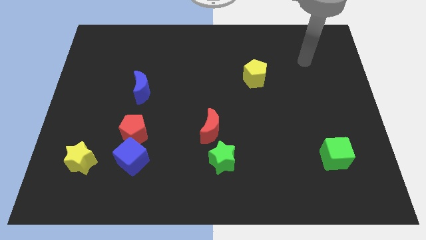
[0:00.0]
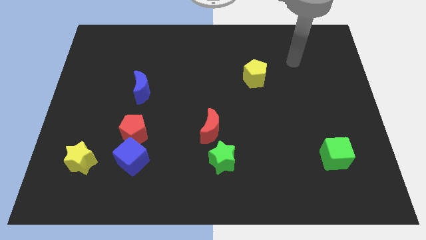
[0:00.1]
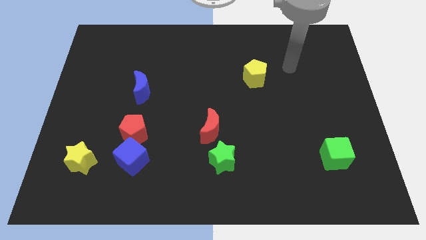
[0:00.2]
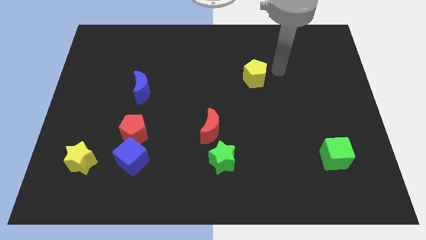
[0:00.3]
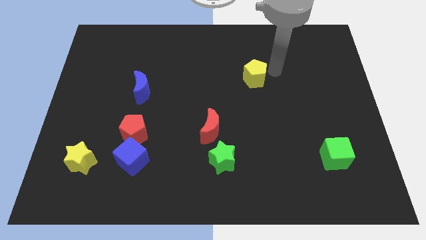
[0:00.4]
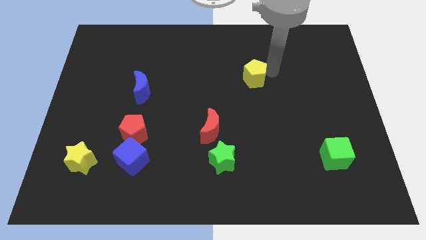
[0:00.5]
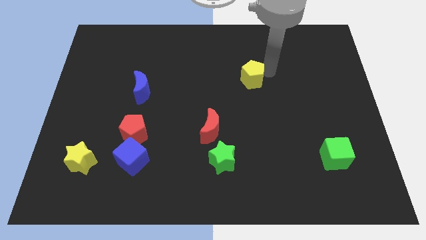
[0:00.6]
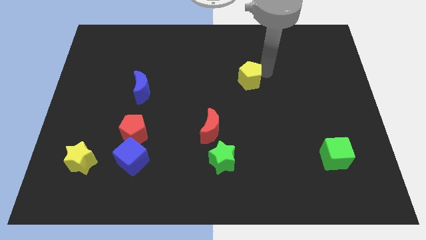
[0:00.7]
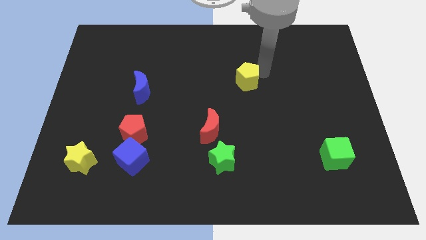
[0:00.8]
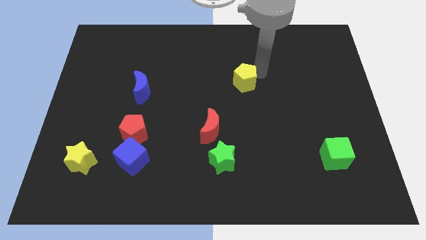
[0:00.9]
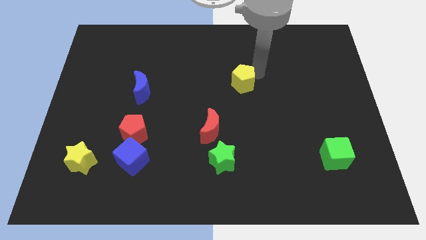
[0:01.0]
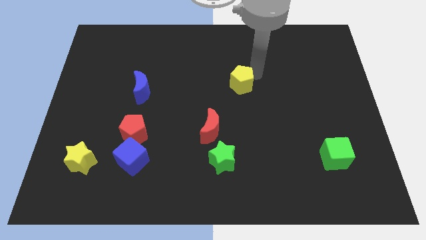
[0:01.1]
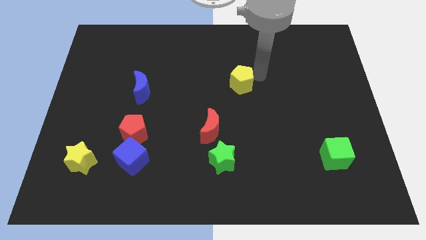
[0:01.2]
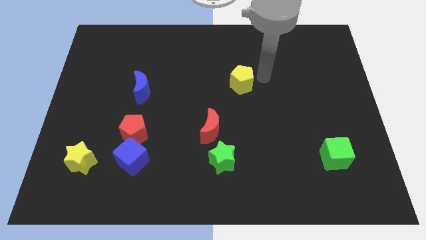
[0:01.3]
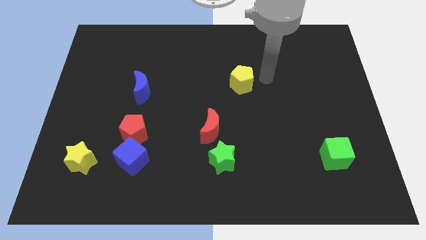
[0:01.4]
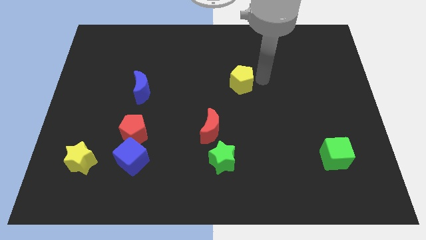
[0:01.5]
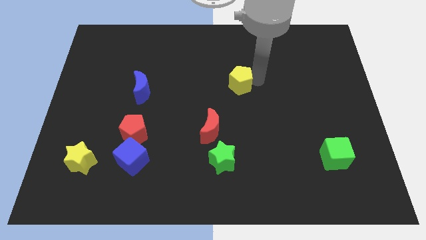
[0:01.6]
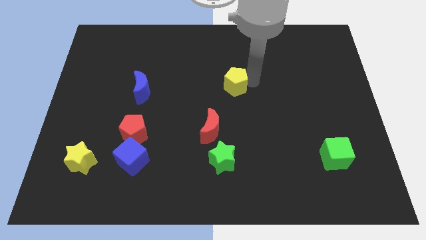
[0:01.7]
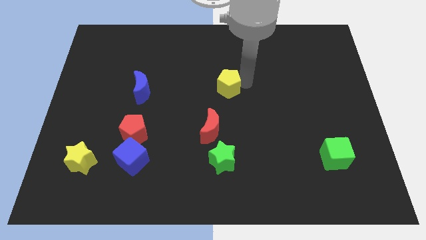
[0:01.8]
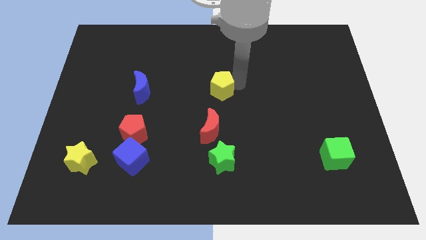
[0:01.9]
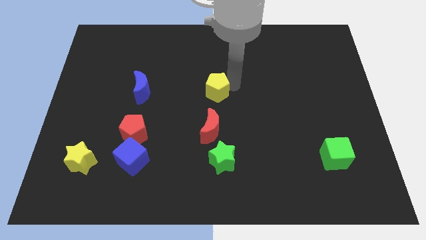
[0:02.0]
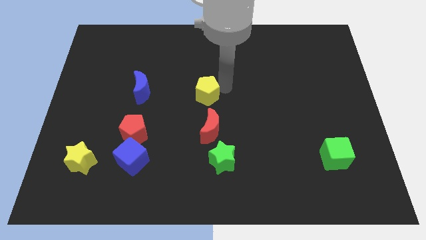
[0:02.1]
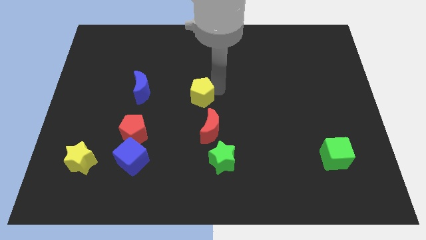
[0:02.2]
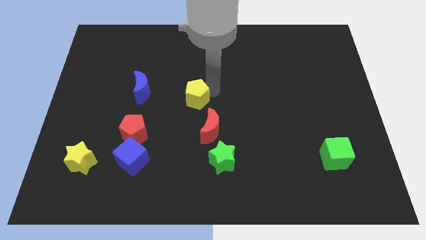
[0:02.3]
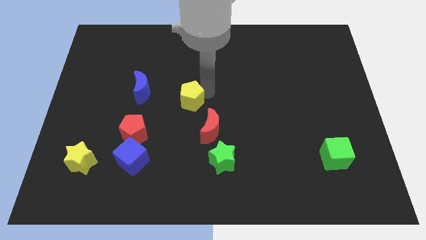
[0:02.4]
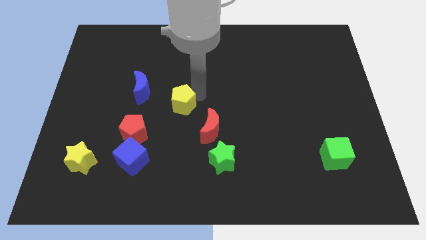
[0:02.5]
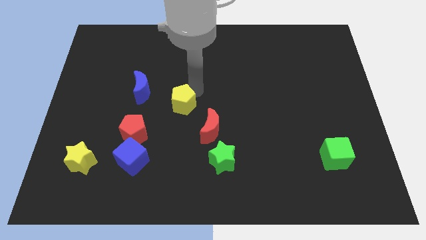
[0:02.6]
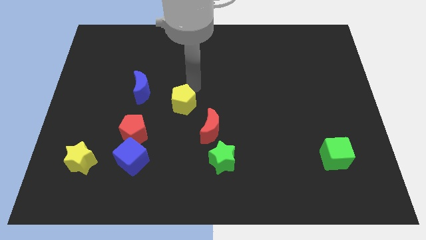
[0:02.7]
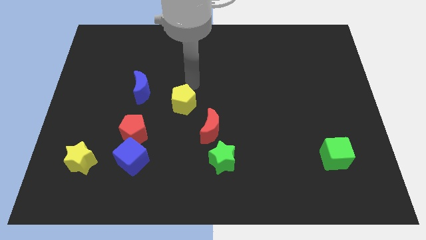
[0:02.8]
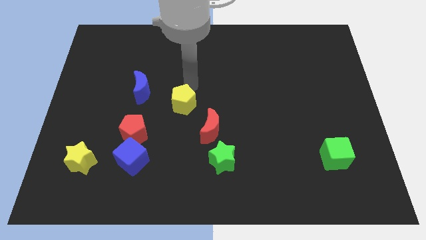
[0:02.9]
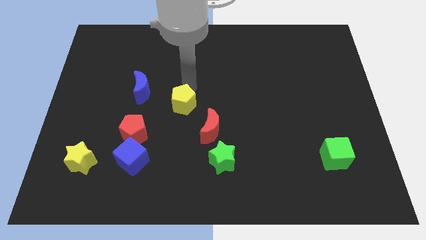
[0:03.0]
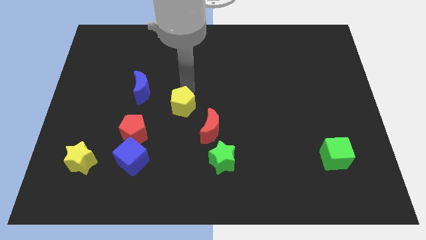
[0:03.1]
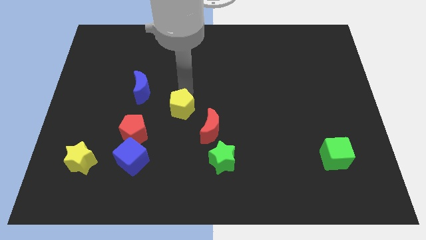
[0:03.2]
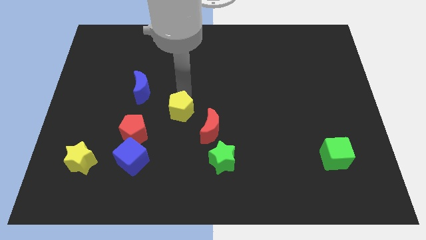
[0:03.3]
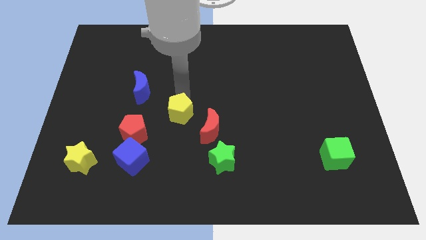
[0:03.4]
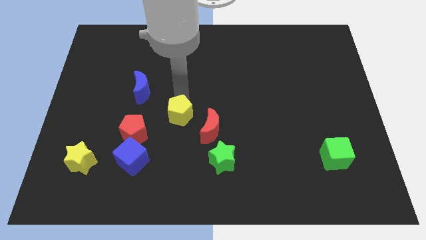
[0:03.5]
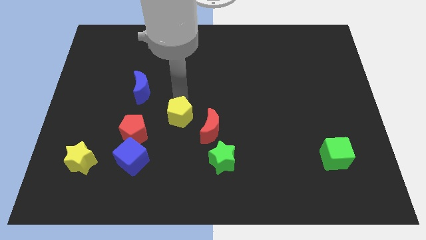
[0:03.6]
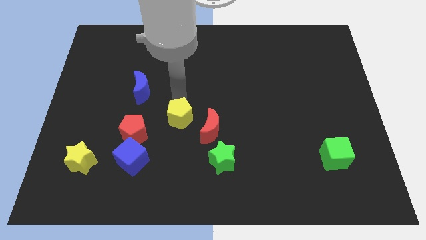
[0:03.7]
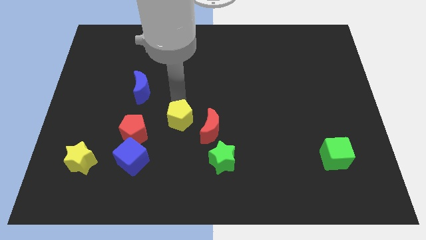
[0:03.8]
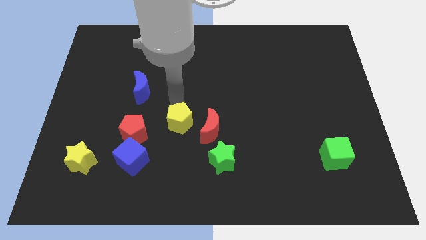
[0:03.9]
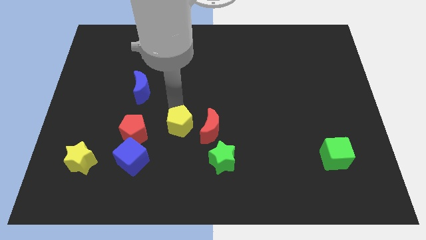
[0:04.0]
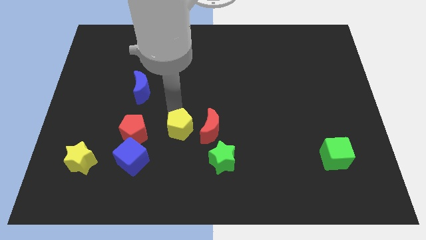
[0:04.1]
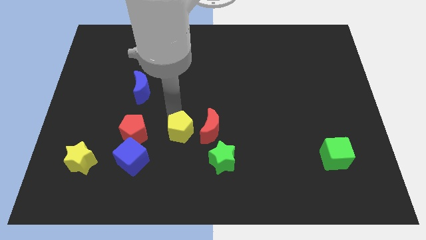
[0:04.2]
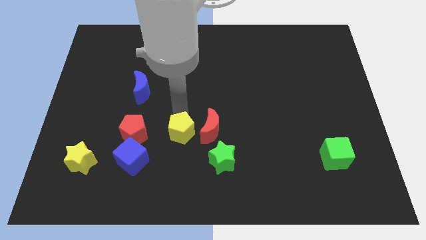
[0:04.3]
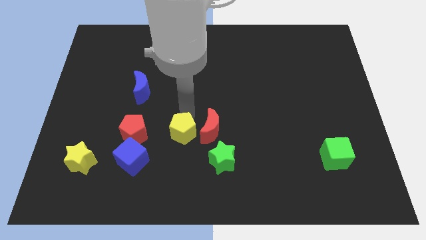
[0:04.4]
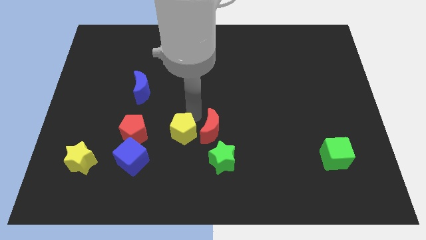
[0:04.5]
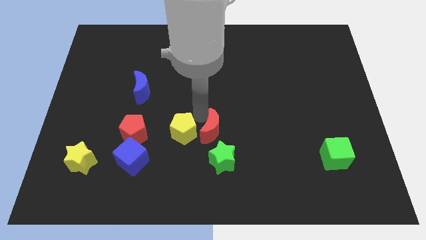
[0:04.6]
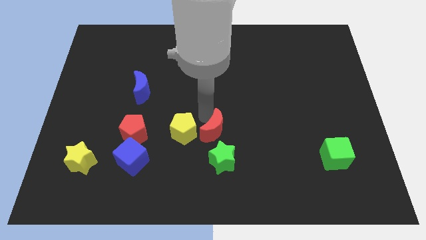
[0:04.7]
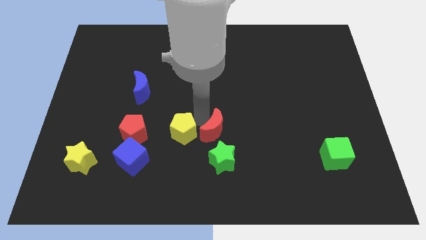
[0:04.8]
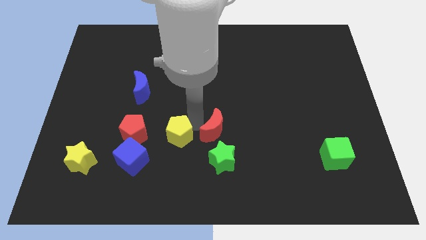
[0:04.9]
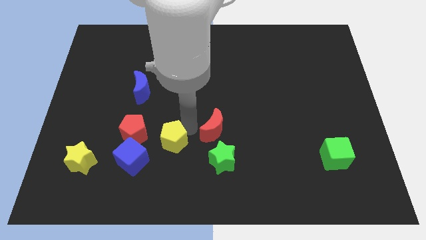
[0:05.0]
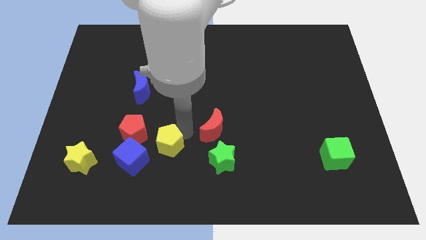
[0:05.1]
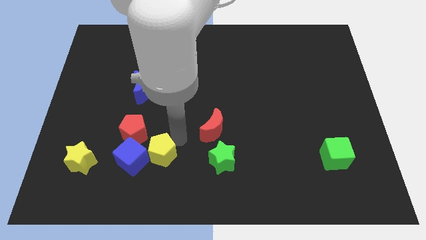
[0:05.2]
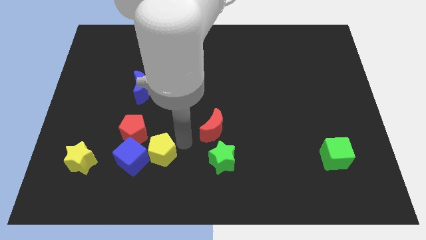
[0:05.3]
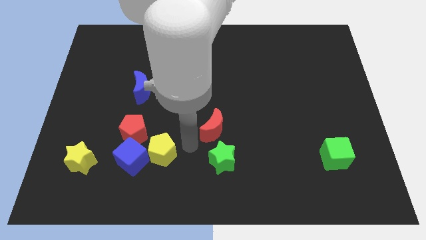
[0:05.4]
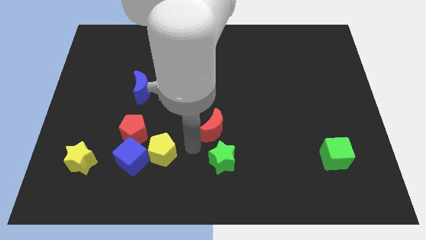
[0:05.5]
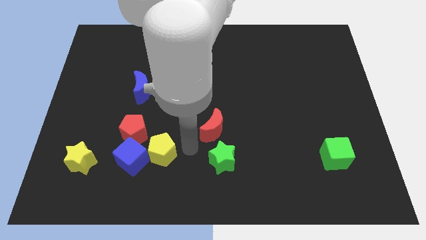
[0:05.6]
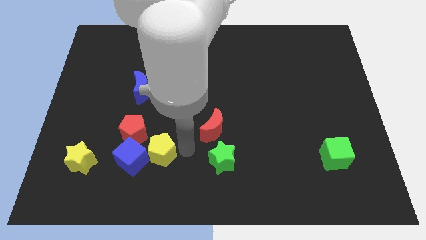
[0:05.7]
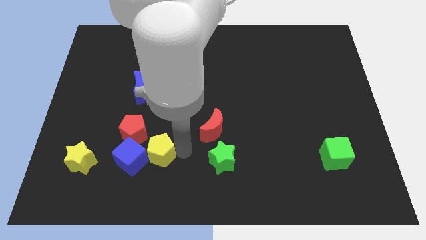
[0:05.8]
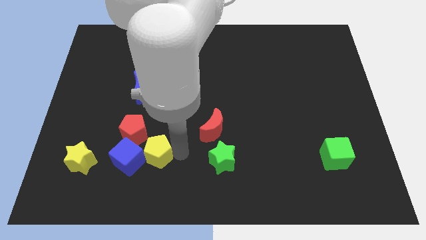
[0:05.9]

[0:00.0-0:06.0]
put the yellow pentagon to the right of the yellow star

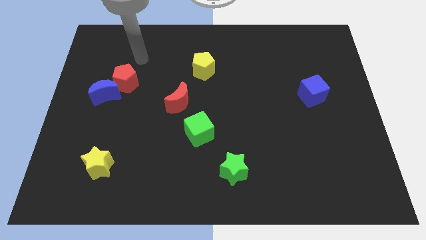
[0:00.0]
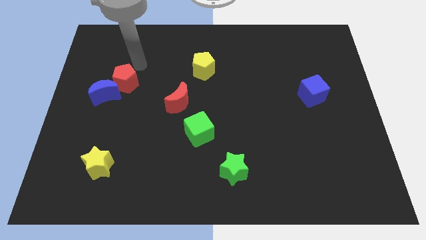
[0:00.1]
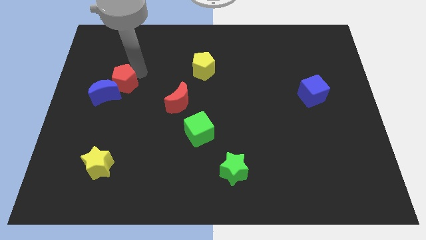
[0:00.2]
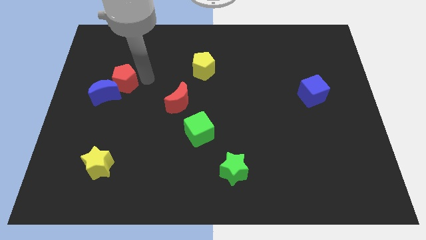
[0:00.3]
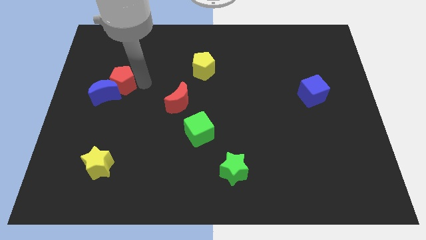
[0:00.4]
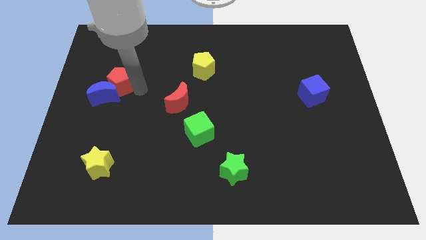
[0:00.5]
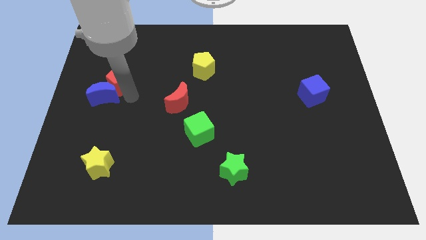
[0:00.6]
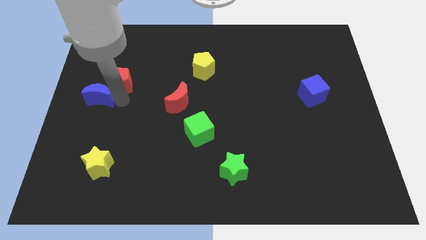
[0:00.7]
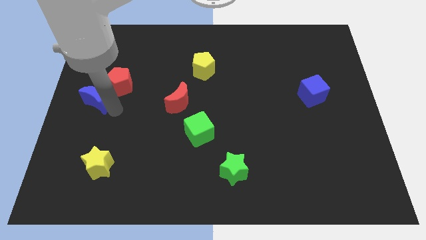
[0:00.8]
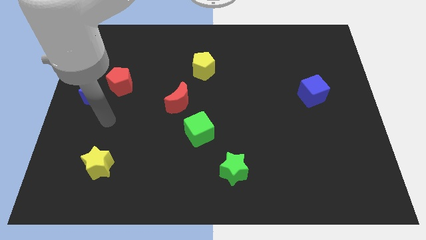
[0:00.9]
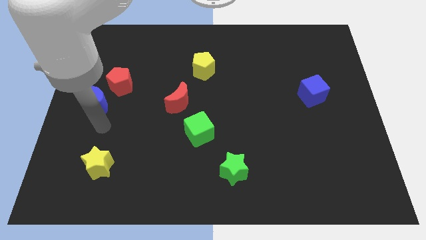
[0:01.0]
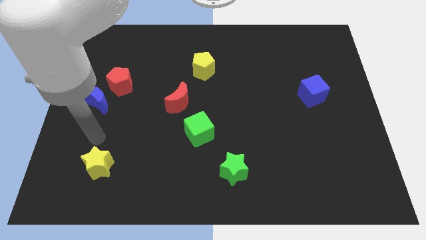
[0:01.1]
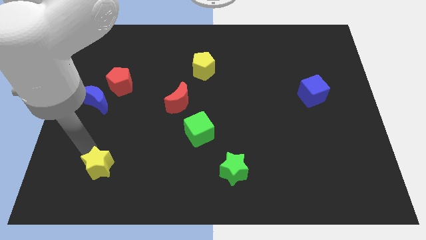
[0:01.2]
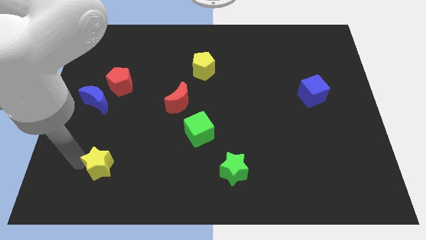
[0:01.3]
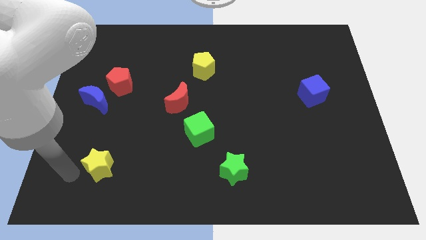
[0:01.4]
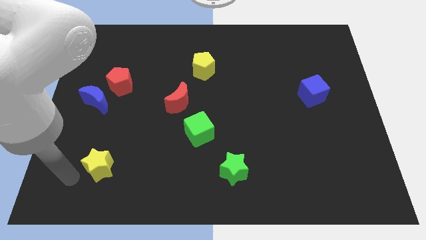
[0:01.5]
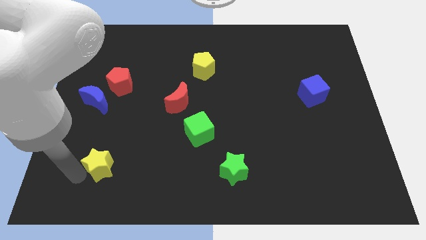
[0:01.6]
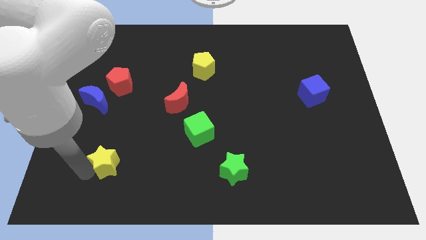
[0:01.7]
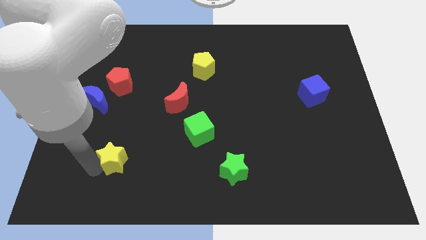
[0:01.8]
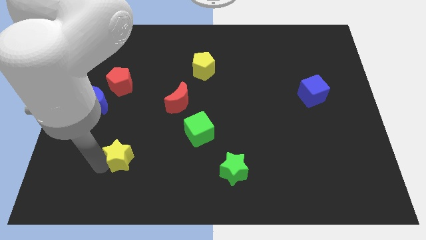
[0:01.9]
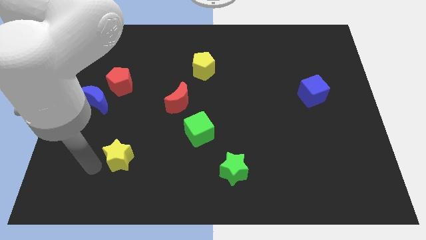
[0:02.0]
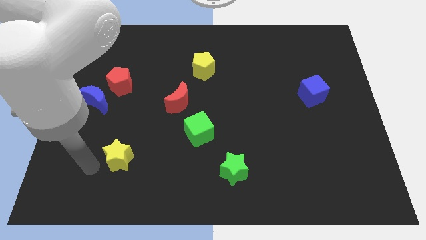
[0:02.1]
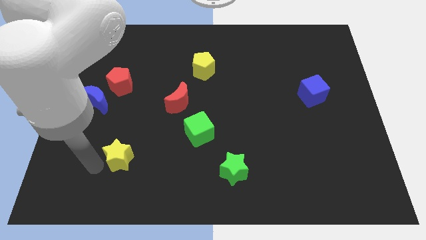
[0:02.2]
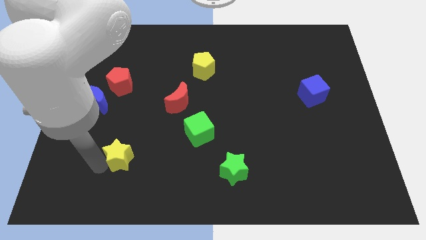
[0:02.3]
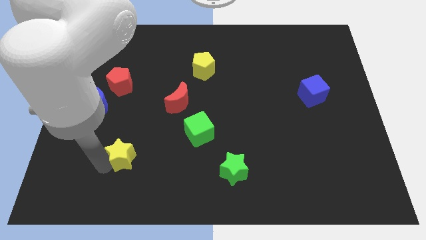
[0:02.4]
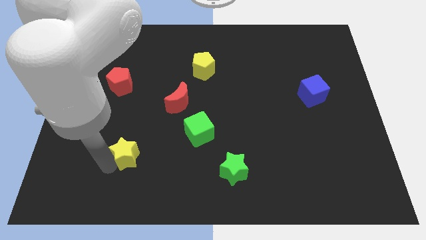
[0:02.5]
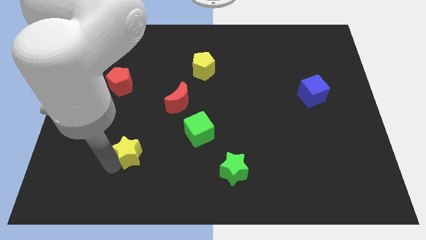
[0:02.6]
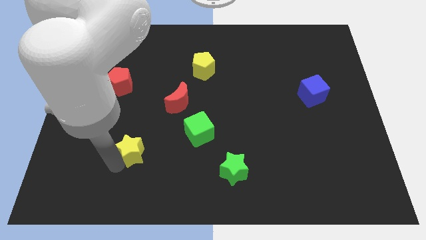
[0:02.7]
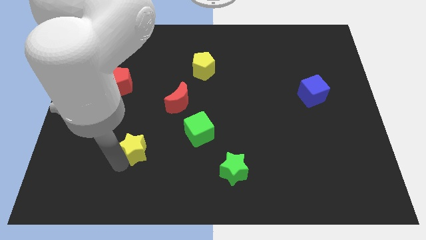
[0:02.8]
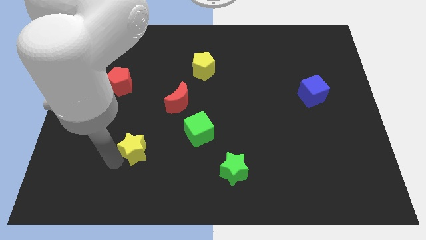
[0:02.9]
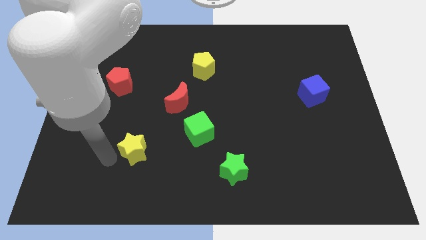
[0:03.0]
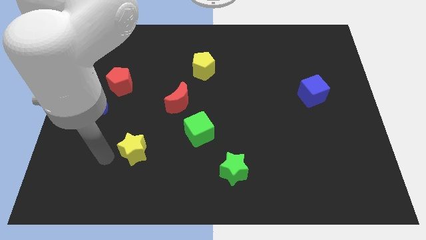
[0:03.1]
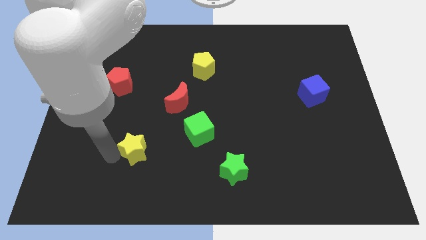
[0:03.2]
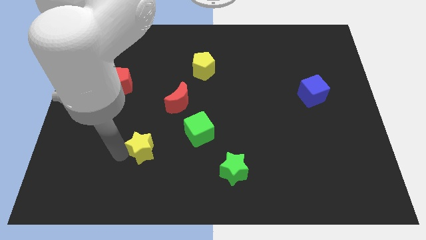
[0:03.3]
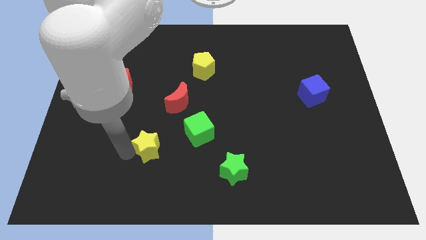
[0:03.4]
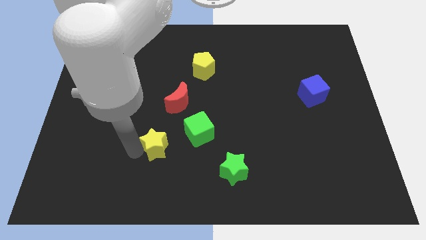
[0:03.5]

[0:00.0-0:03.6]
put the yellow star below the red moon
